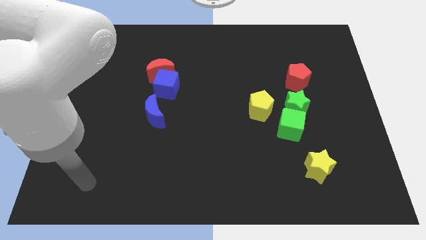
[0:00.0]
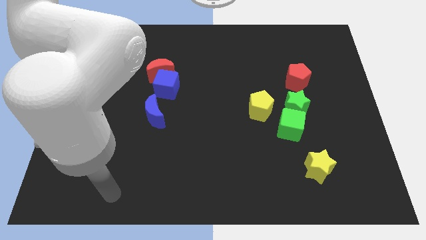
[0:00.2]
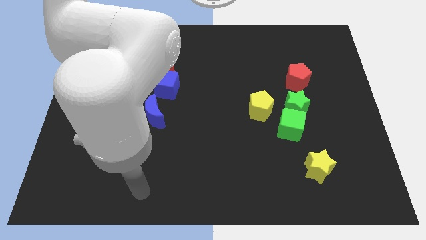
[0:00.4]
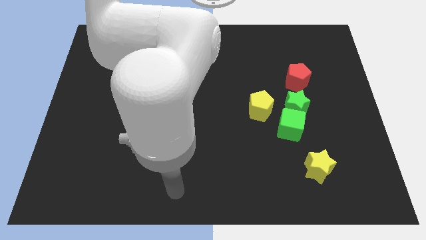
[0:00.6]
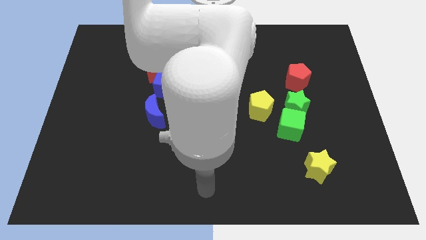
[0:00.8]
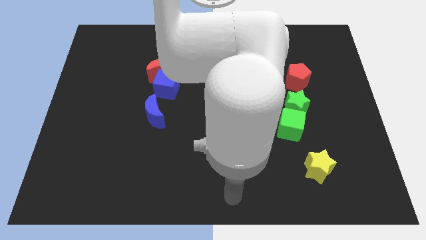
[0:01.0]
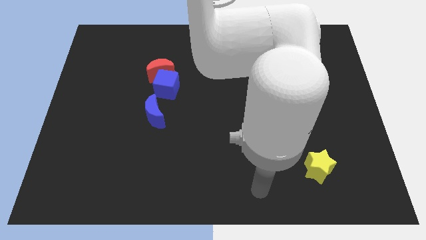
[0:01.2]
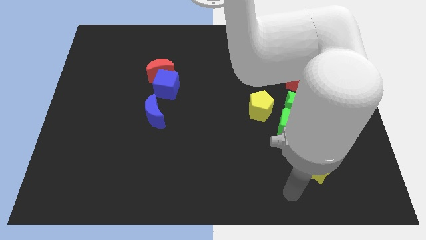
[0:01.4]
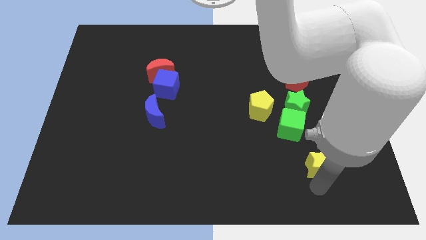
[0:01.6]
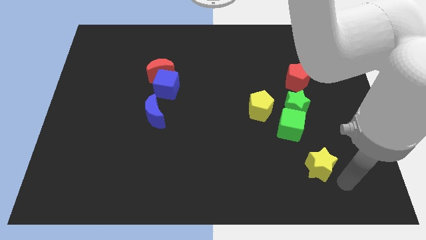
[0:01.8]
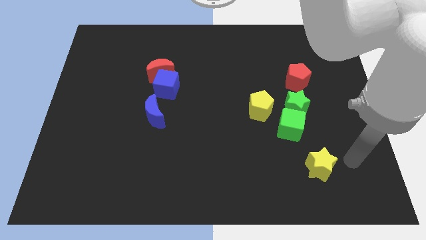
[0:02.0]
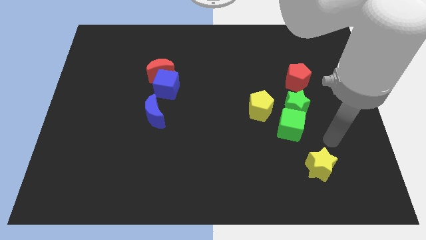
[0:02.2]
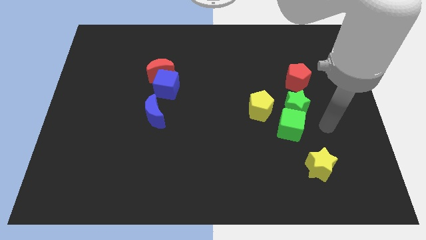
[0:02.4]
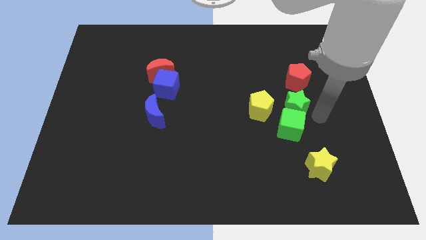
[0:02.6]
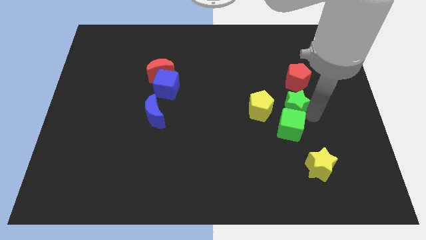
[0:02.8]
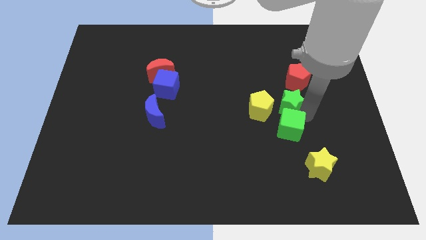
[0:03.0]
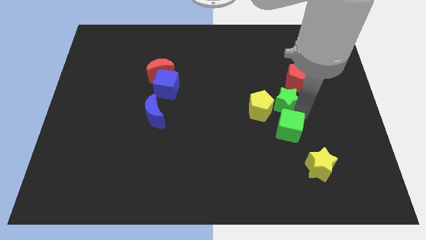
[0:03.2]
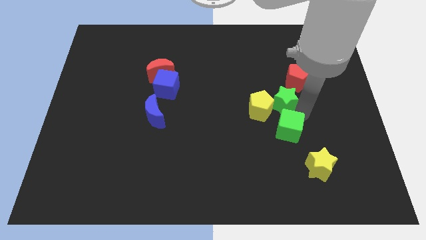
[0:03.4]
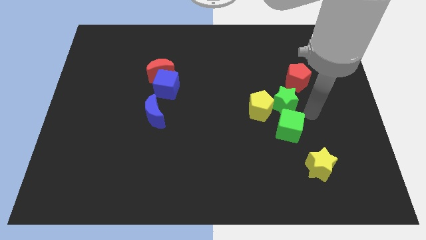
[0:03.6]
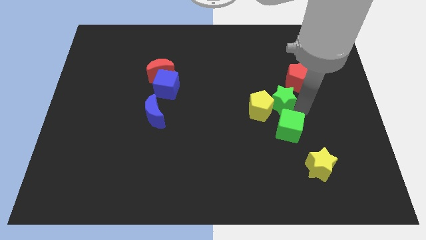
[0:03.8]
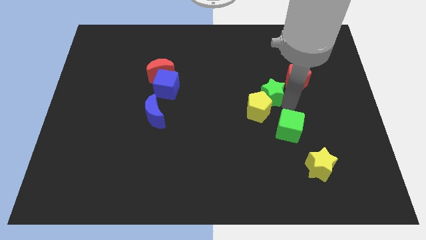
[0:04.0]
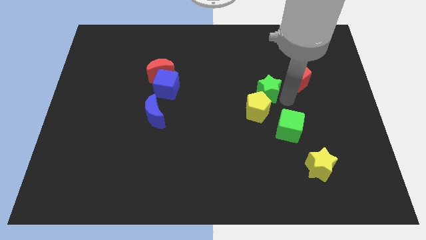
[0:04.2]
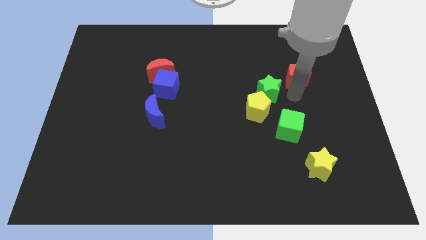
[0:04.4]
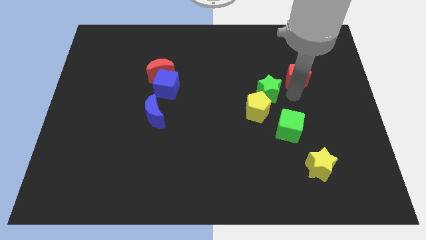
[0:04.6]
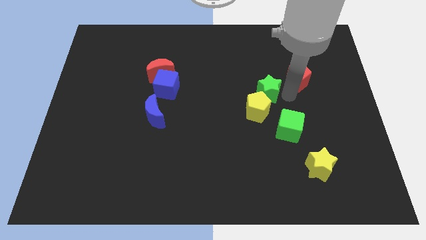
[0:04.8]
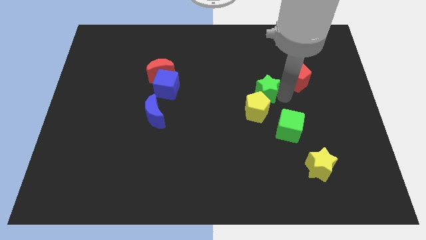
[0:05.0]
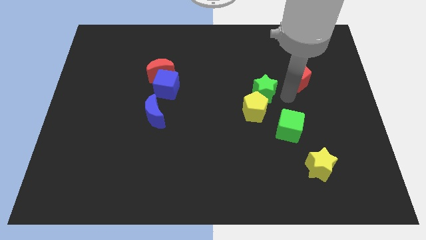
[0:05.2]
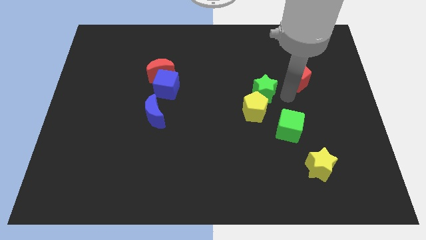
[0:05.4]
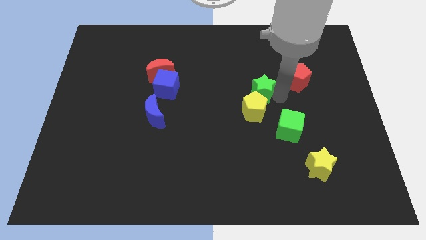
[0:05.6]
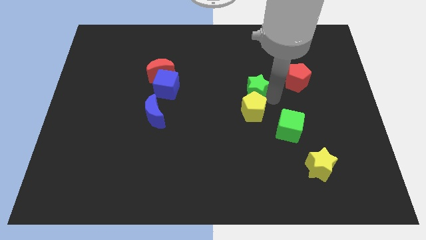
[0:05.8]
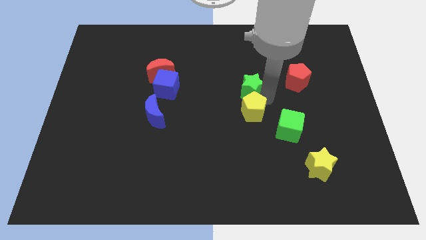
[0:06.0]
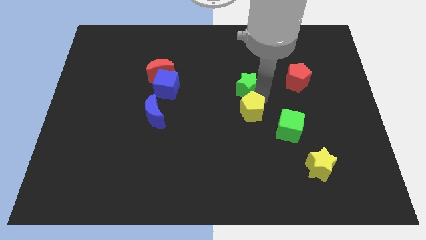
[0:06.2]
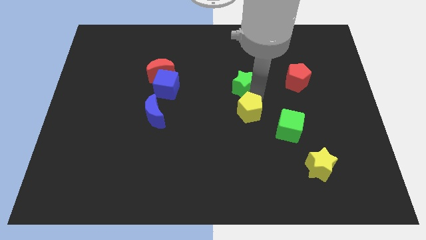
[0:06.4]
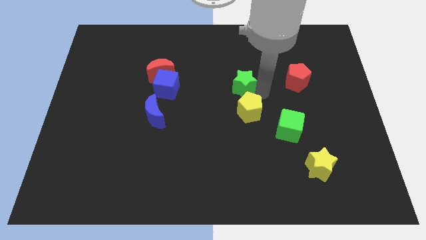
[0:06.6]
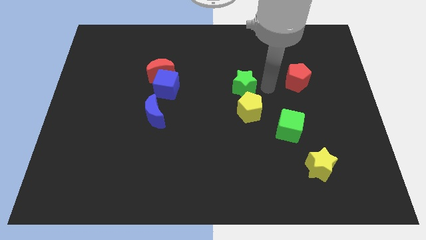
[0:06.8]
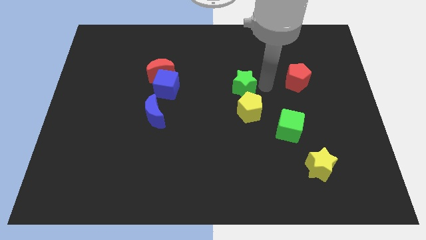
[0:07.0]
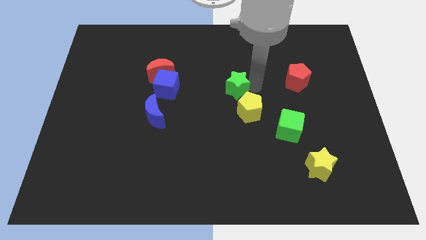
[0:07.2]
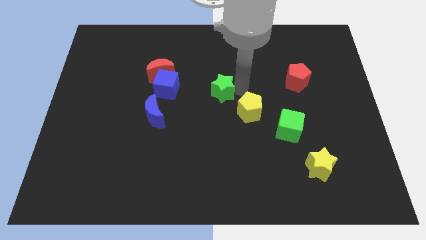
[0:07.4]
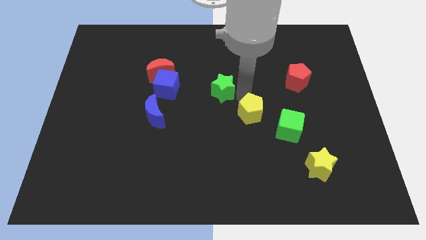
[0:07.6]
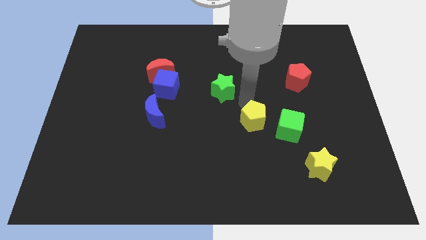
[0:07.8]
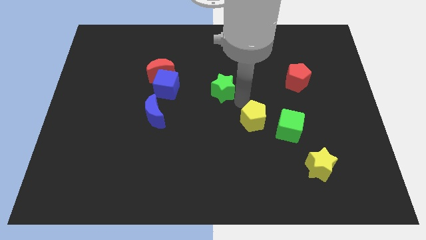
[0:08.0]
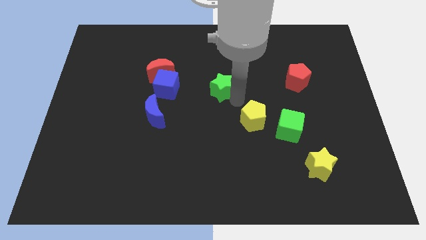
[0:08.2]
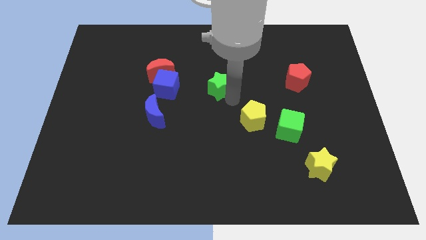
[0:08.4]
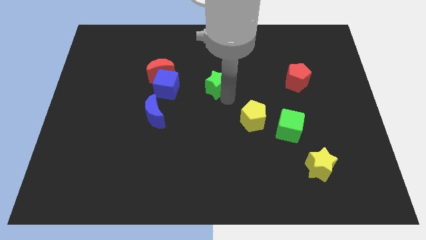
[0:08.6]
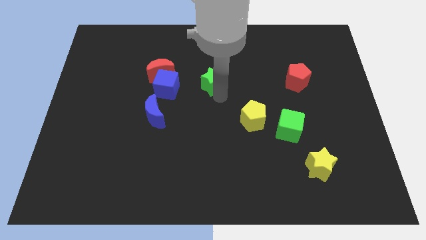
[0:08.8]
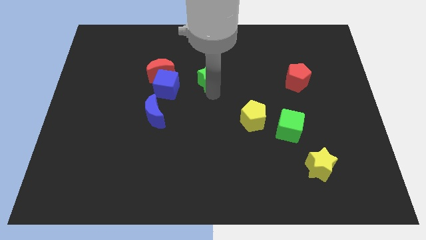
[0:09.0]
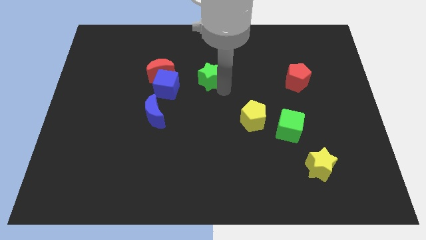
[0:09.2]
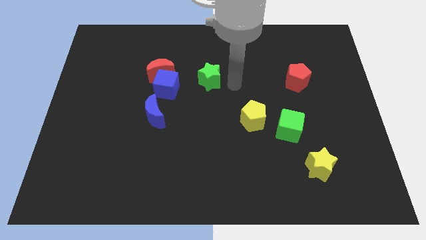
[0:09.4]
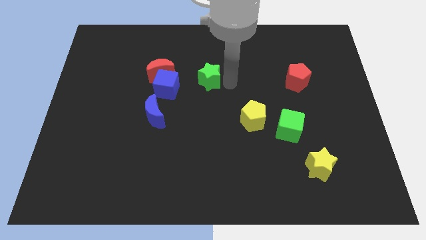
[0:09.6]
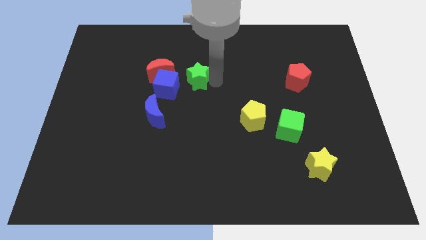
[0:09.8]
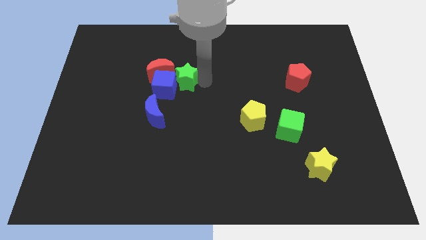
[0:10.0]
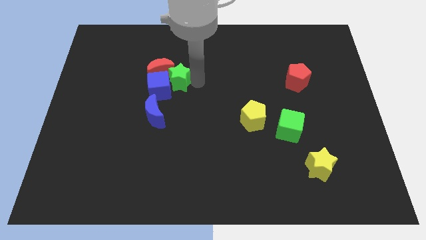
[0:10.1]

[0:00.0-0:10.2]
push the green star next to the red moon

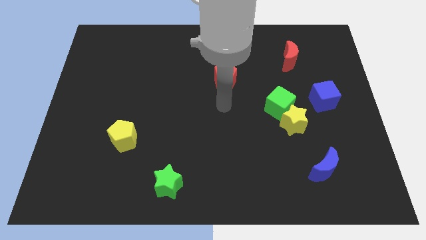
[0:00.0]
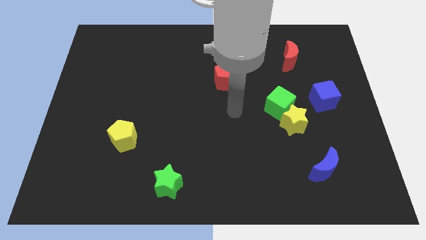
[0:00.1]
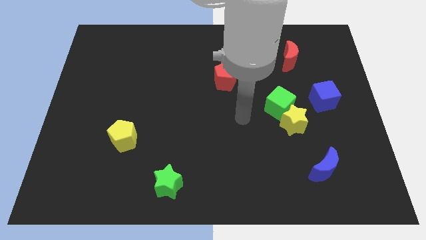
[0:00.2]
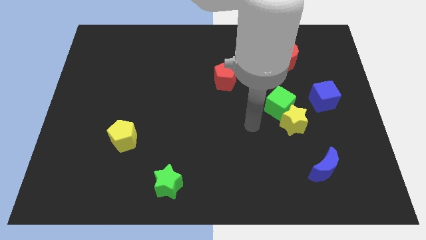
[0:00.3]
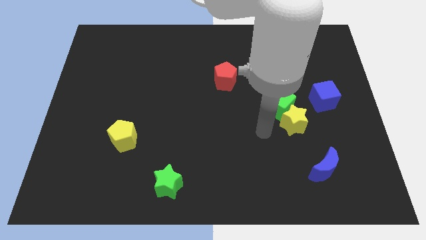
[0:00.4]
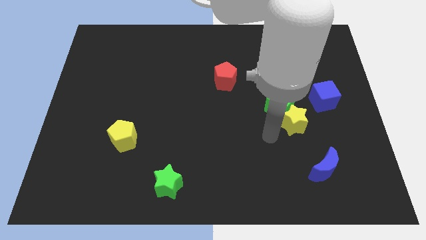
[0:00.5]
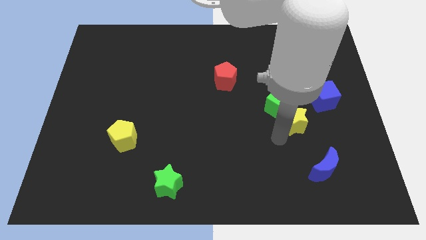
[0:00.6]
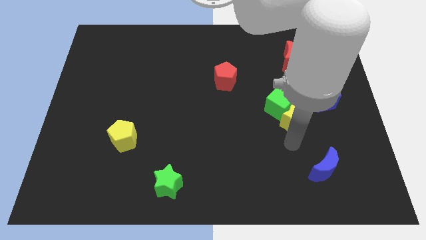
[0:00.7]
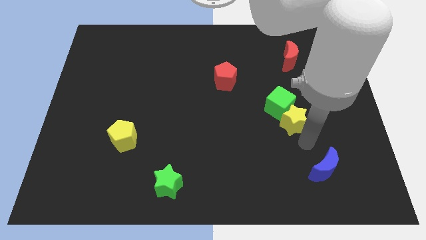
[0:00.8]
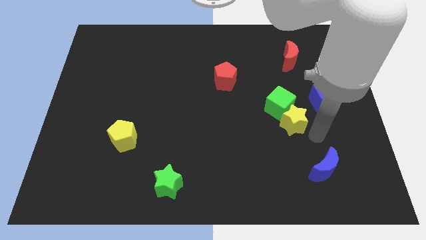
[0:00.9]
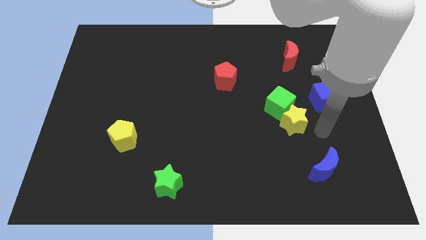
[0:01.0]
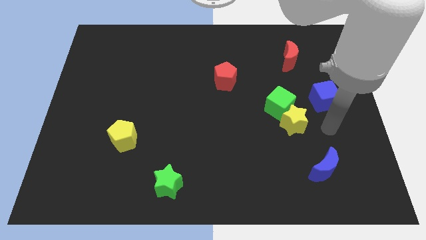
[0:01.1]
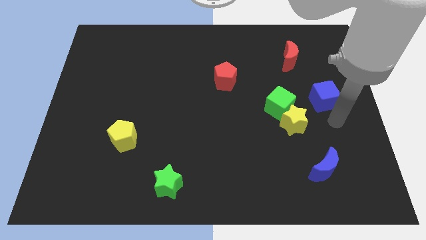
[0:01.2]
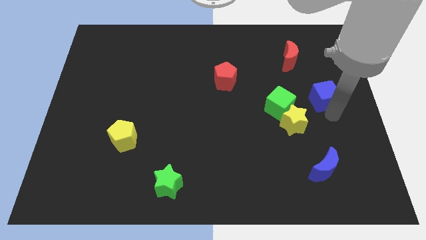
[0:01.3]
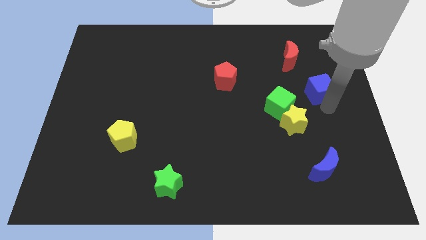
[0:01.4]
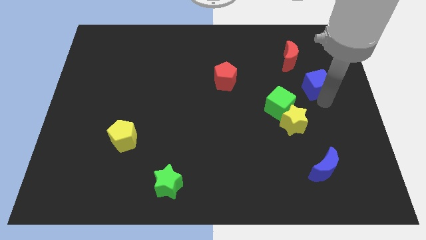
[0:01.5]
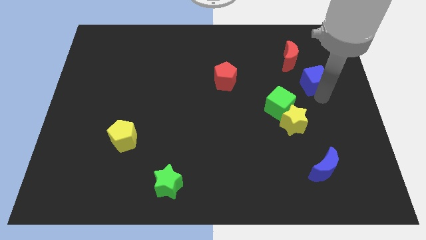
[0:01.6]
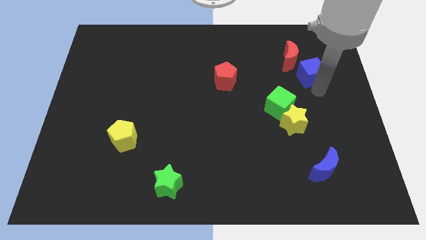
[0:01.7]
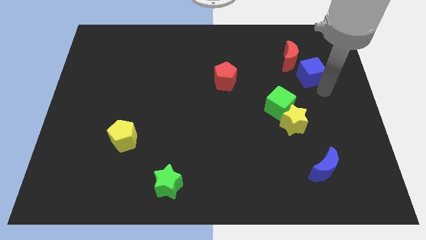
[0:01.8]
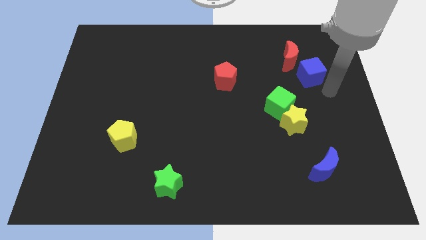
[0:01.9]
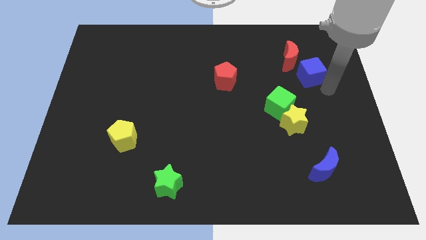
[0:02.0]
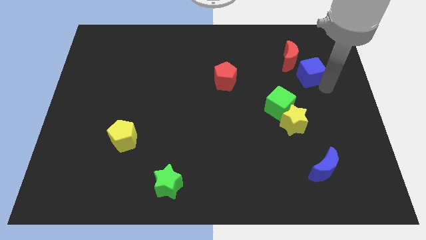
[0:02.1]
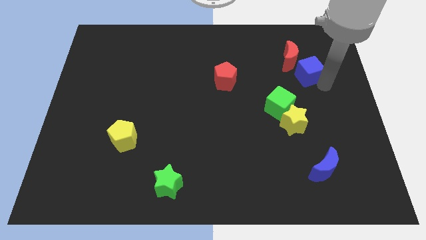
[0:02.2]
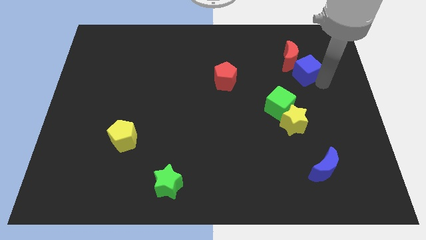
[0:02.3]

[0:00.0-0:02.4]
move the blue cube towards the red moon
